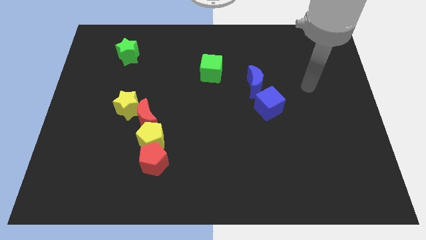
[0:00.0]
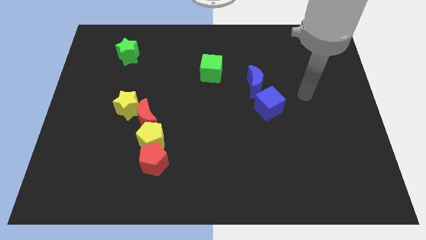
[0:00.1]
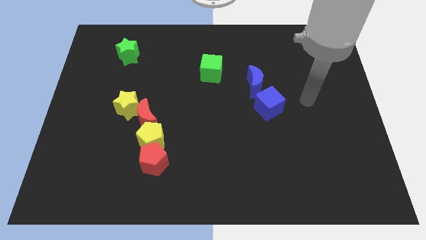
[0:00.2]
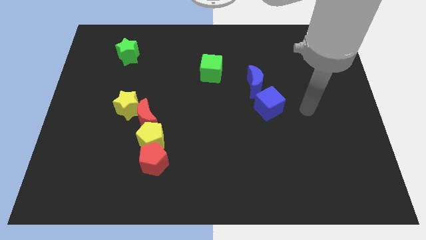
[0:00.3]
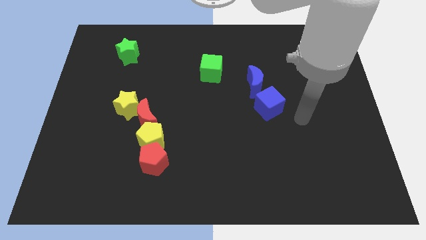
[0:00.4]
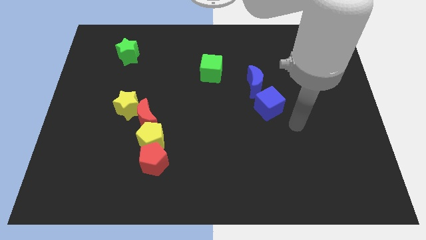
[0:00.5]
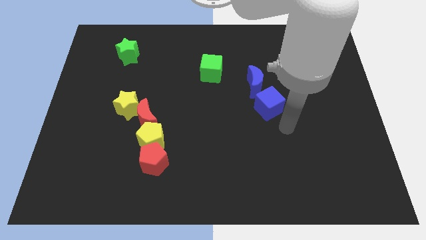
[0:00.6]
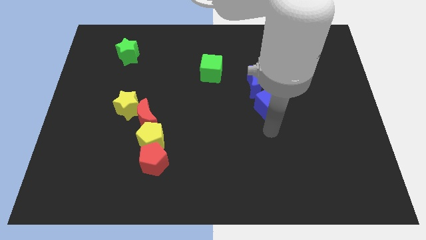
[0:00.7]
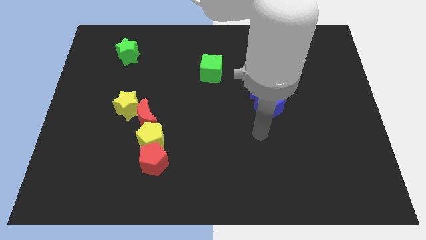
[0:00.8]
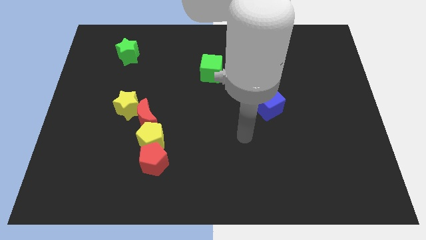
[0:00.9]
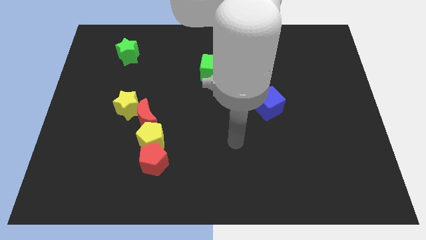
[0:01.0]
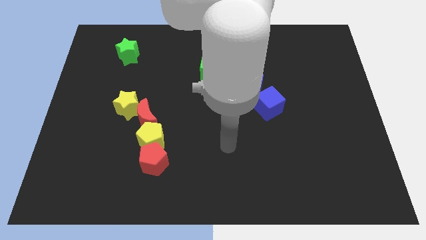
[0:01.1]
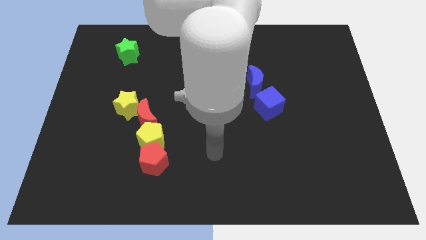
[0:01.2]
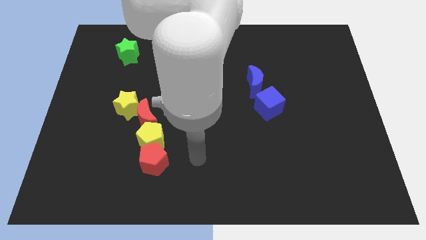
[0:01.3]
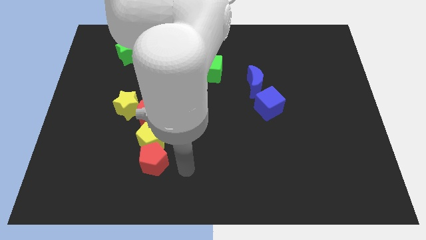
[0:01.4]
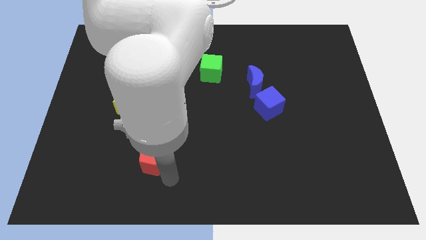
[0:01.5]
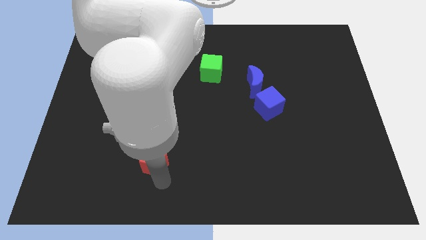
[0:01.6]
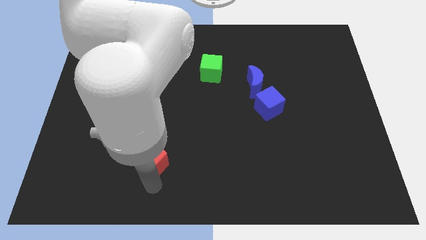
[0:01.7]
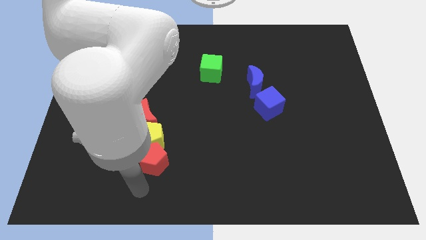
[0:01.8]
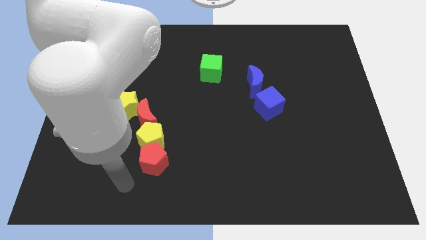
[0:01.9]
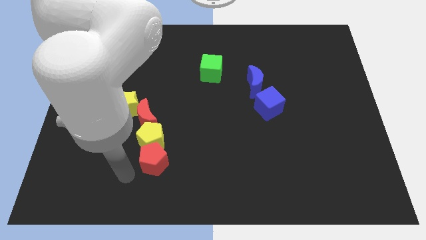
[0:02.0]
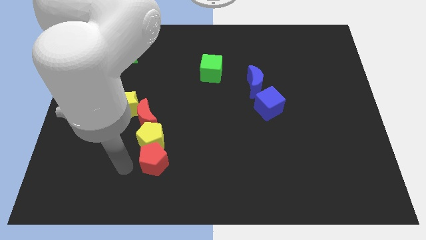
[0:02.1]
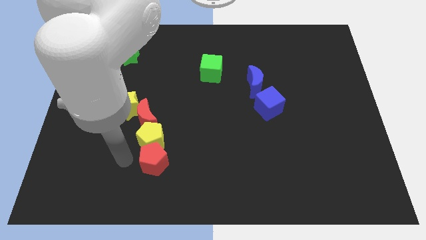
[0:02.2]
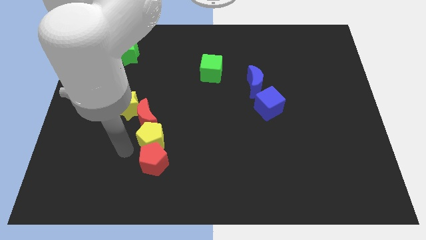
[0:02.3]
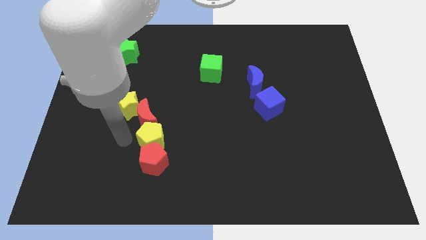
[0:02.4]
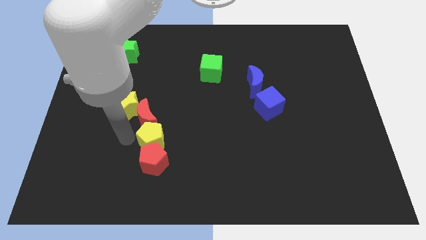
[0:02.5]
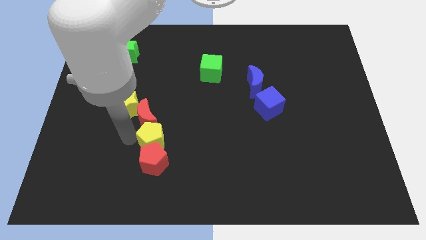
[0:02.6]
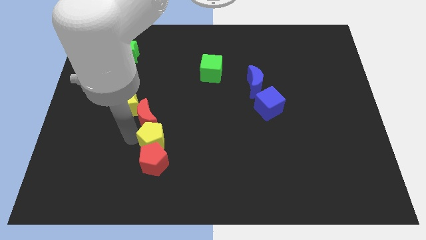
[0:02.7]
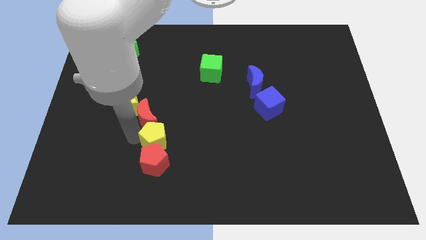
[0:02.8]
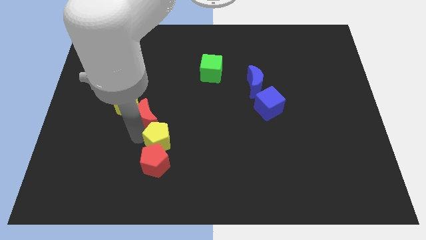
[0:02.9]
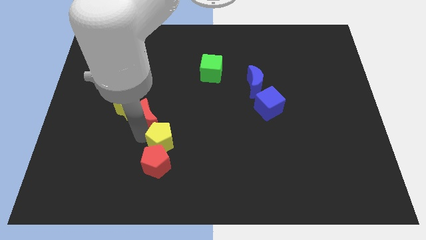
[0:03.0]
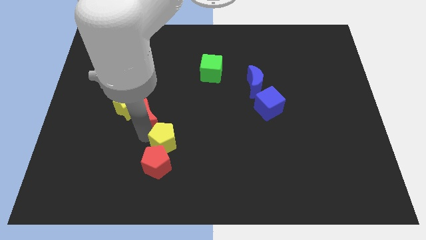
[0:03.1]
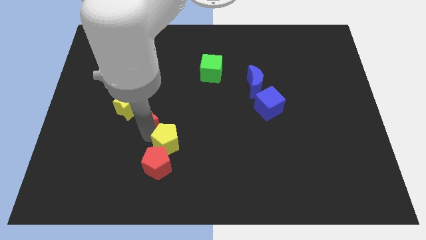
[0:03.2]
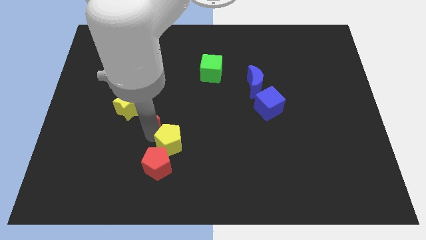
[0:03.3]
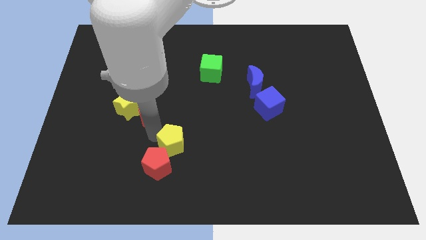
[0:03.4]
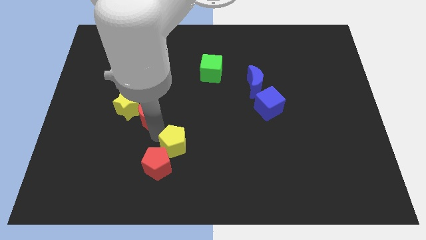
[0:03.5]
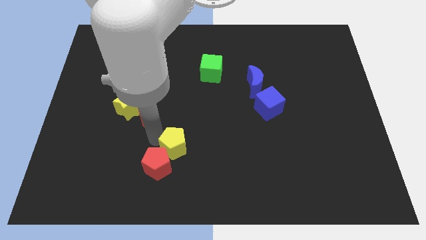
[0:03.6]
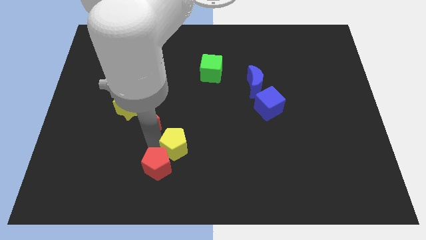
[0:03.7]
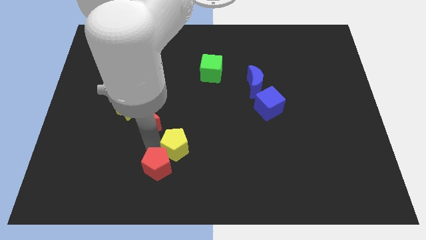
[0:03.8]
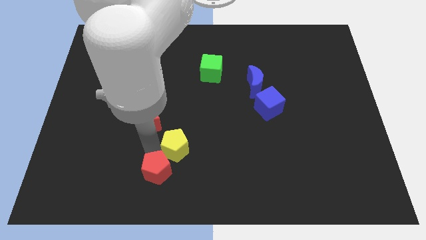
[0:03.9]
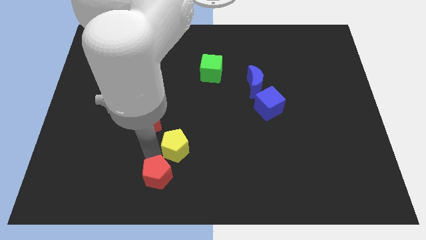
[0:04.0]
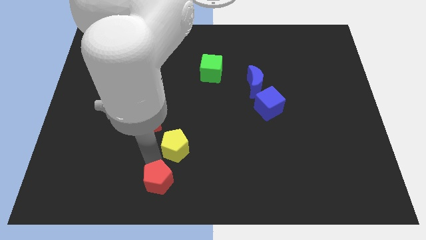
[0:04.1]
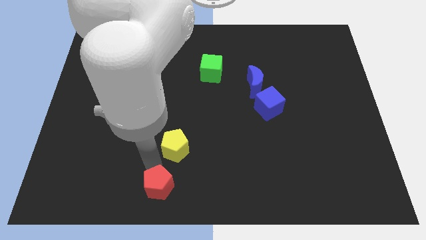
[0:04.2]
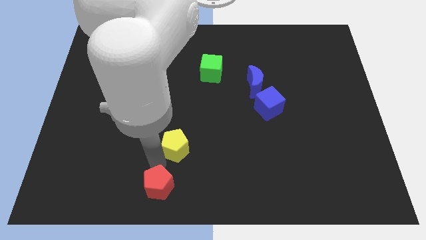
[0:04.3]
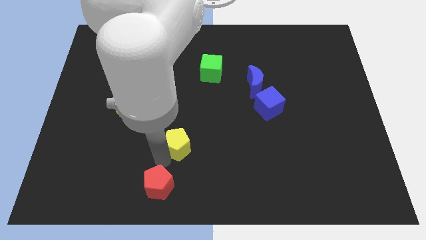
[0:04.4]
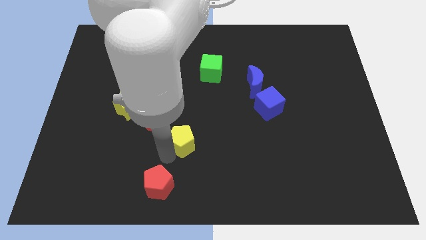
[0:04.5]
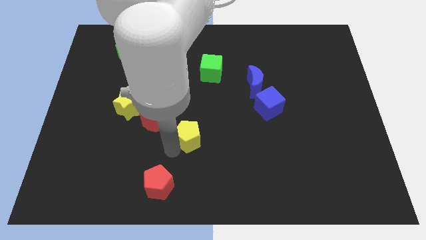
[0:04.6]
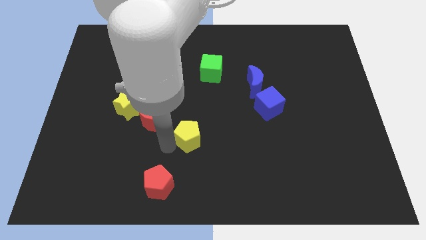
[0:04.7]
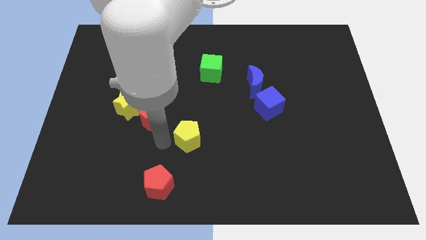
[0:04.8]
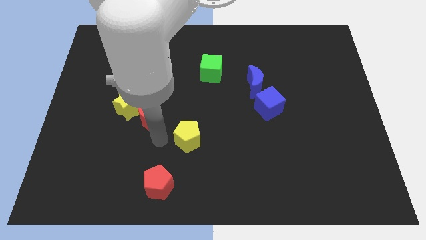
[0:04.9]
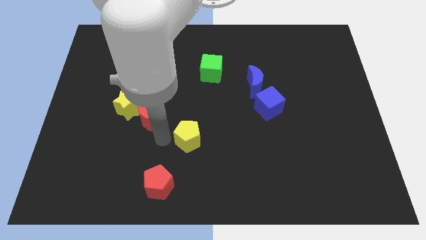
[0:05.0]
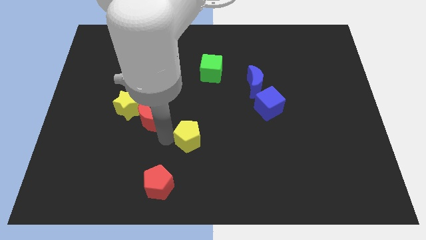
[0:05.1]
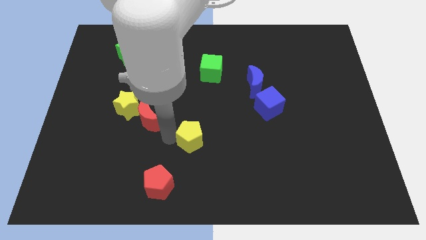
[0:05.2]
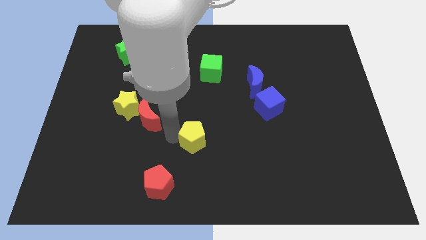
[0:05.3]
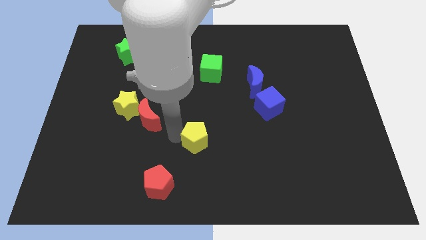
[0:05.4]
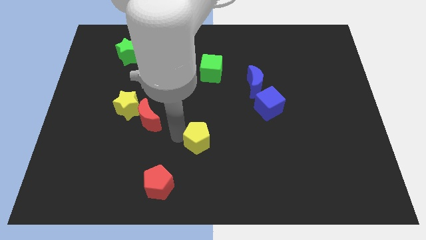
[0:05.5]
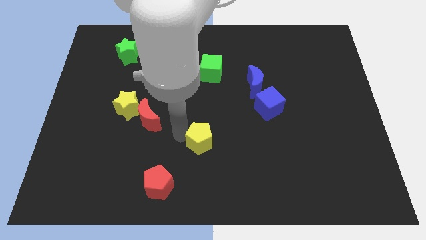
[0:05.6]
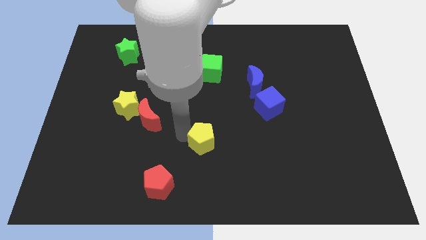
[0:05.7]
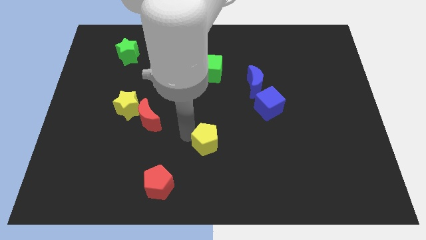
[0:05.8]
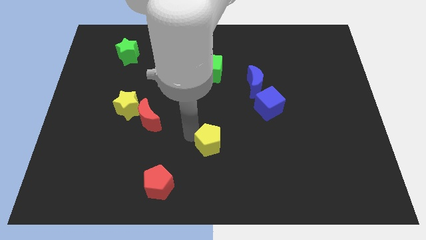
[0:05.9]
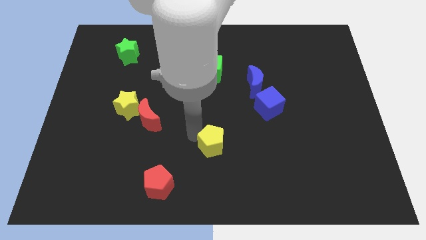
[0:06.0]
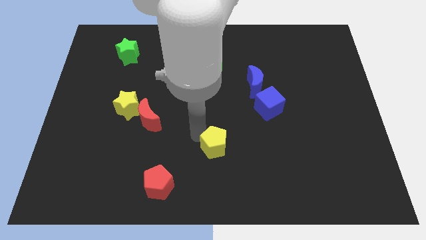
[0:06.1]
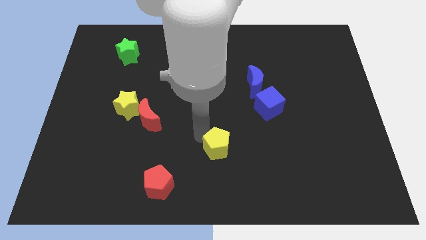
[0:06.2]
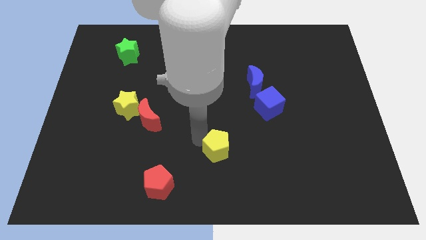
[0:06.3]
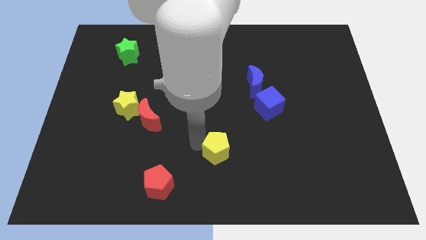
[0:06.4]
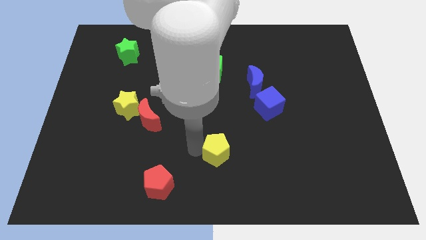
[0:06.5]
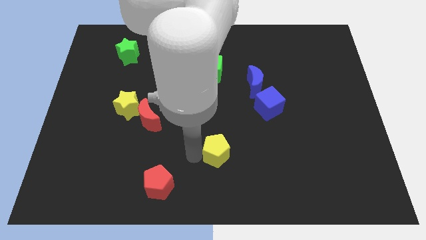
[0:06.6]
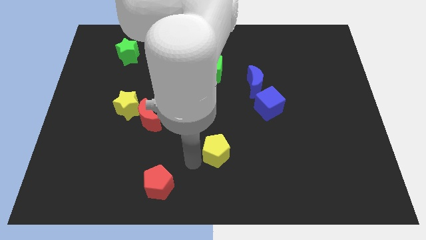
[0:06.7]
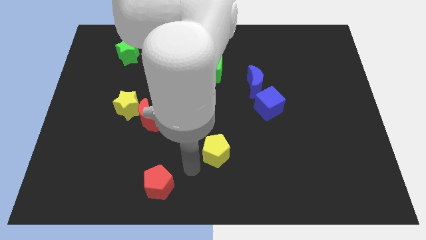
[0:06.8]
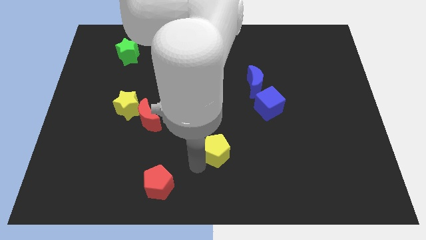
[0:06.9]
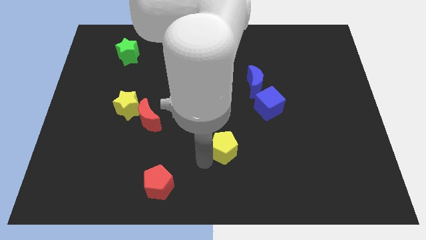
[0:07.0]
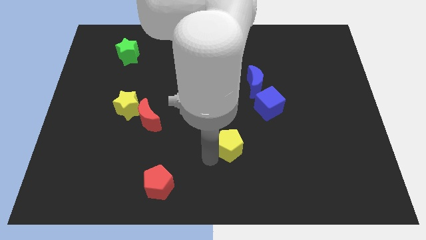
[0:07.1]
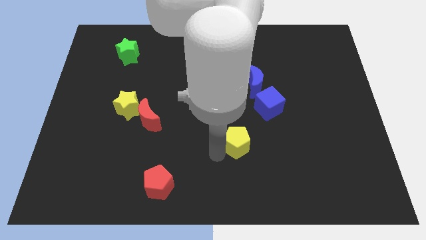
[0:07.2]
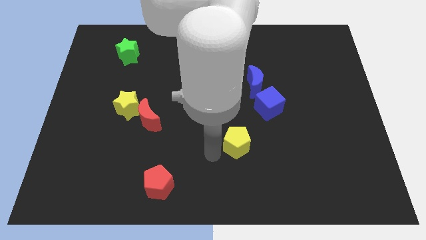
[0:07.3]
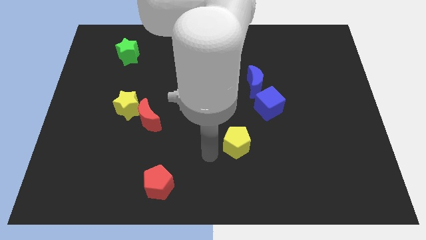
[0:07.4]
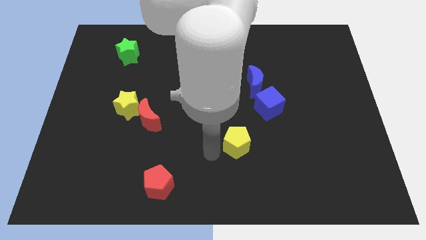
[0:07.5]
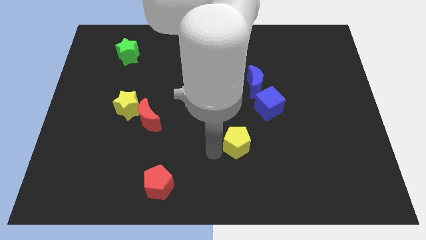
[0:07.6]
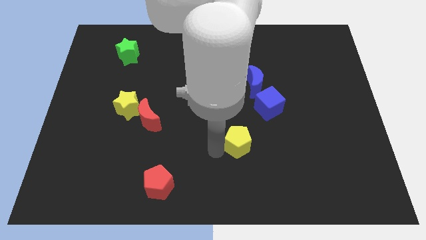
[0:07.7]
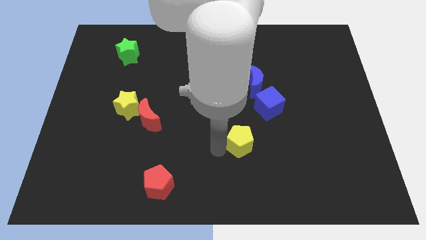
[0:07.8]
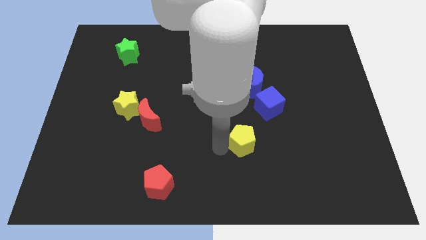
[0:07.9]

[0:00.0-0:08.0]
move the yellow pentagon right

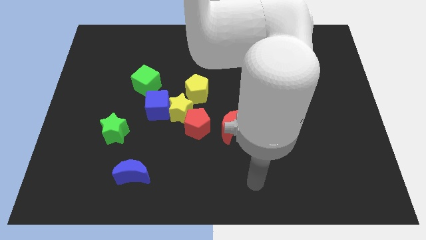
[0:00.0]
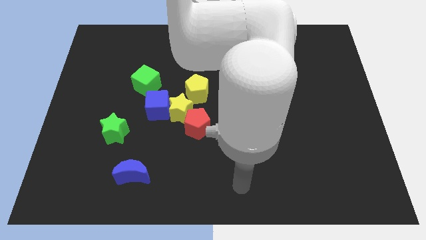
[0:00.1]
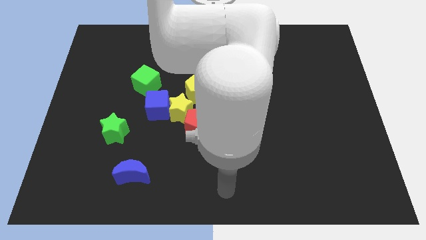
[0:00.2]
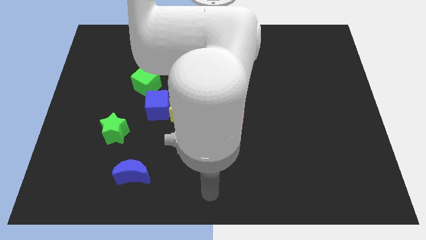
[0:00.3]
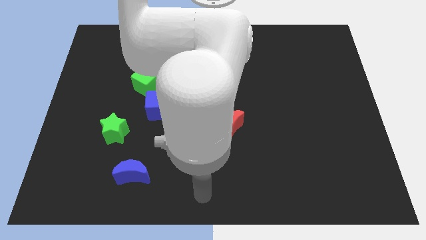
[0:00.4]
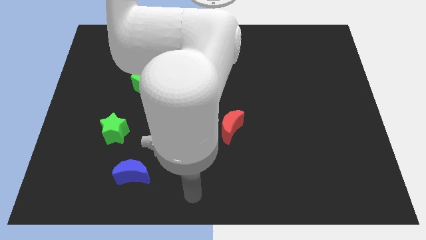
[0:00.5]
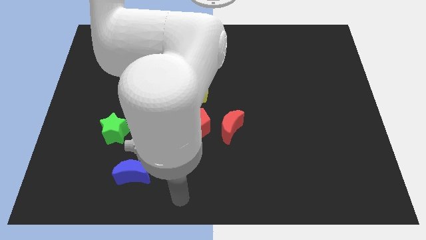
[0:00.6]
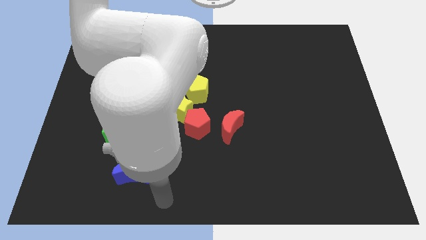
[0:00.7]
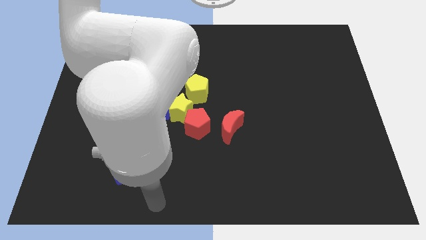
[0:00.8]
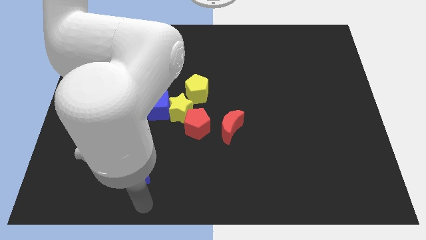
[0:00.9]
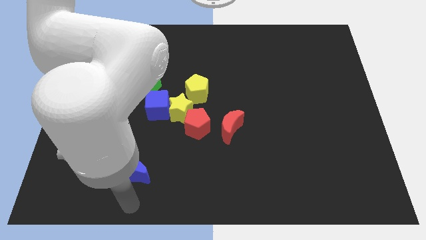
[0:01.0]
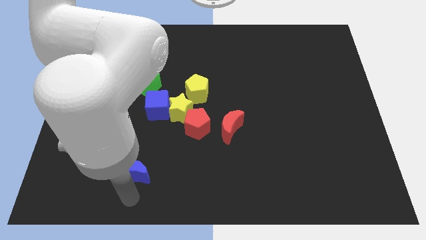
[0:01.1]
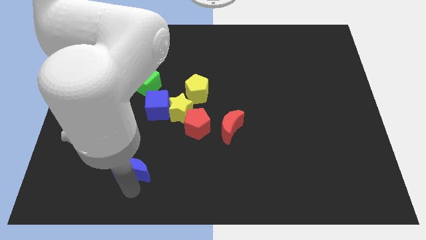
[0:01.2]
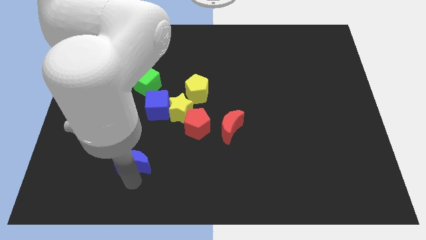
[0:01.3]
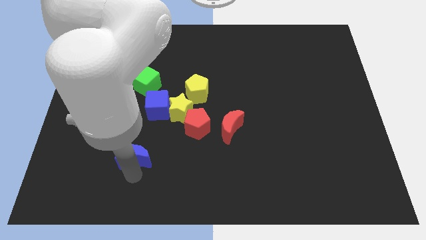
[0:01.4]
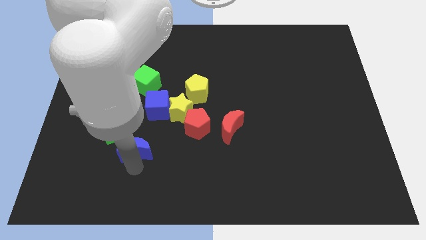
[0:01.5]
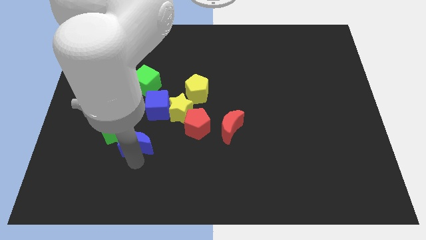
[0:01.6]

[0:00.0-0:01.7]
slightly push the blue moon upwards
